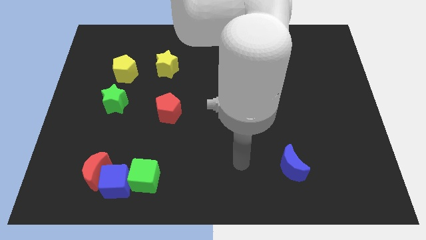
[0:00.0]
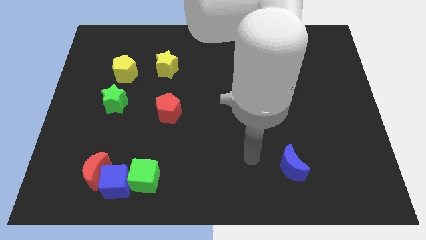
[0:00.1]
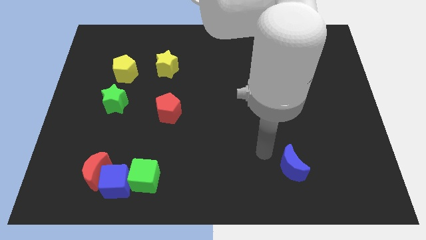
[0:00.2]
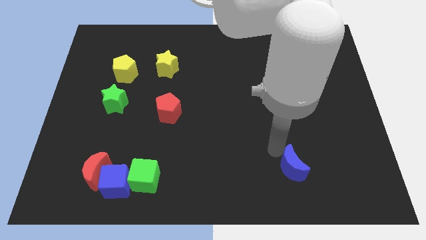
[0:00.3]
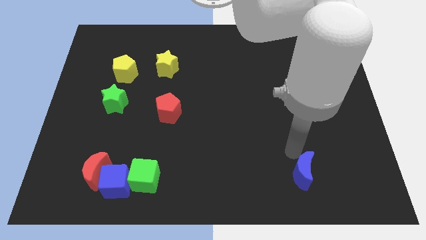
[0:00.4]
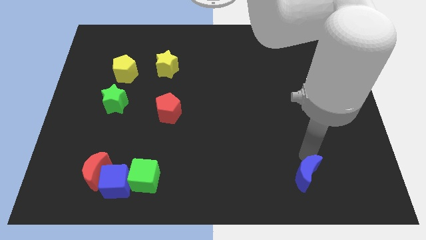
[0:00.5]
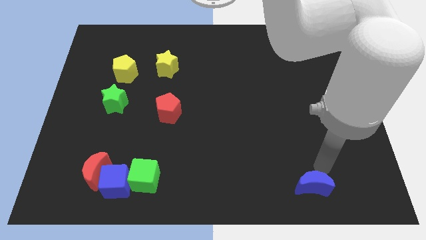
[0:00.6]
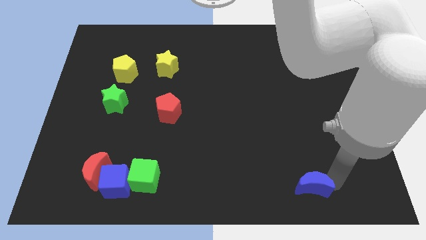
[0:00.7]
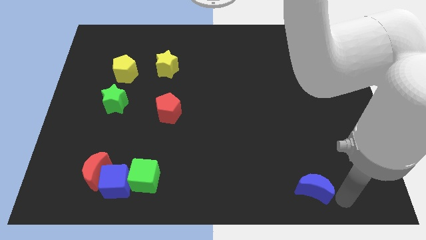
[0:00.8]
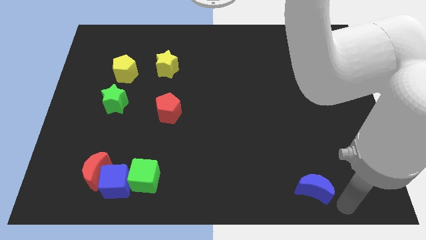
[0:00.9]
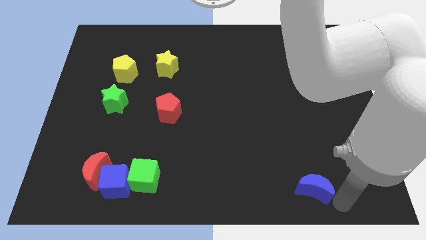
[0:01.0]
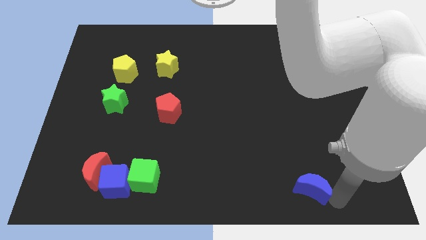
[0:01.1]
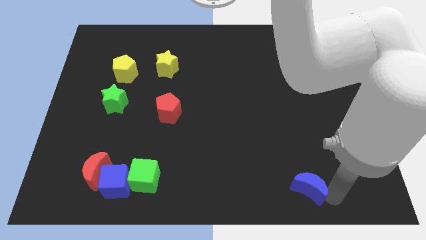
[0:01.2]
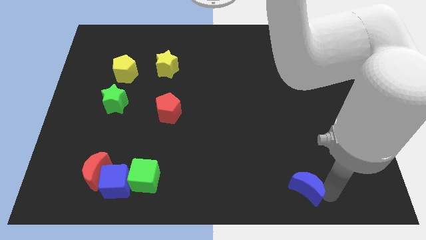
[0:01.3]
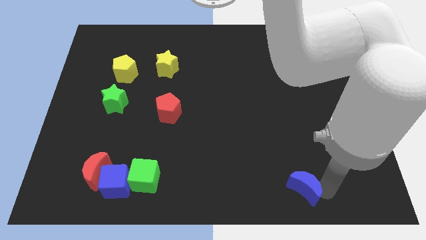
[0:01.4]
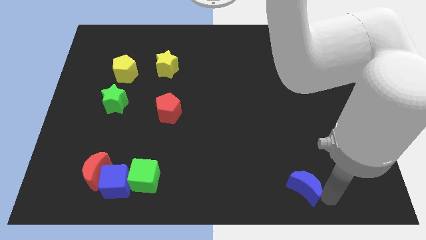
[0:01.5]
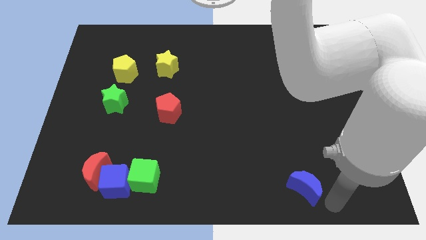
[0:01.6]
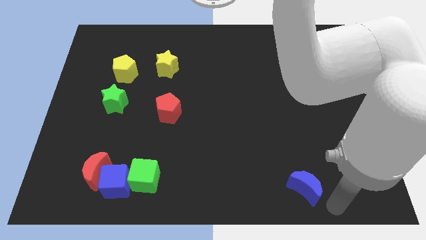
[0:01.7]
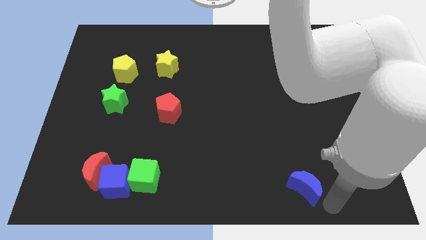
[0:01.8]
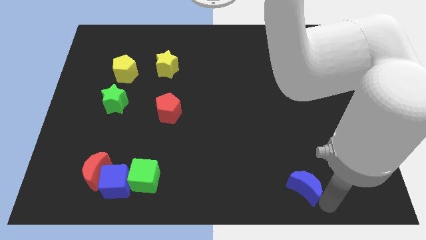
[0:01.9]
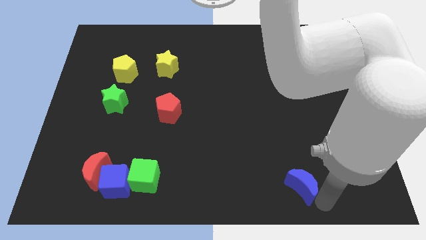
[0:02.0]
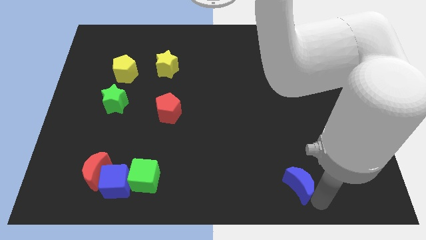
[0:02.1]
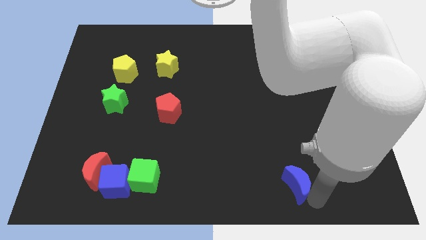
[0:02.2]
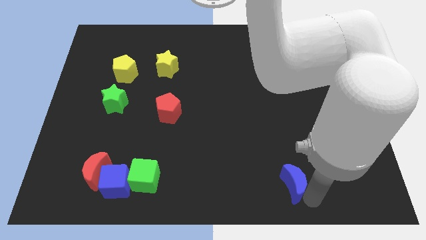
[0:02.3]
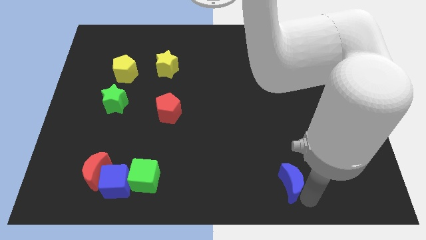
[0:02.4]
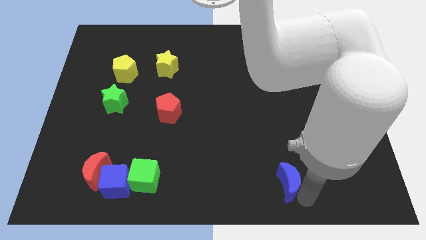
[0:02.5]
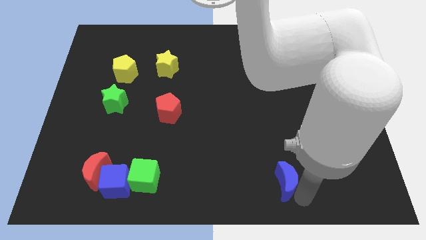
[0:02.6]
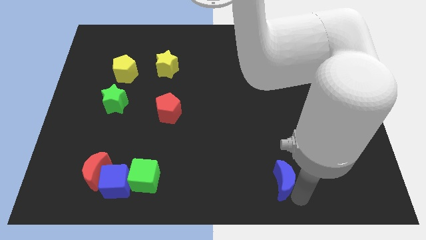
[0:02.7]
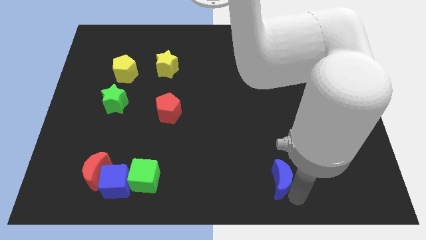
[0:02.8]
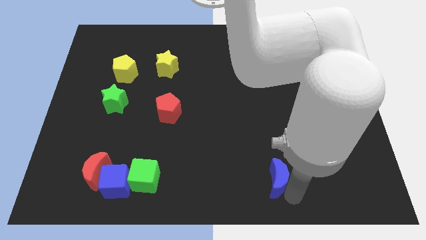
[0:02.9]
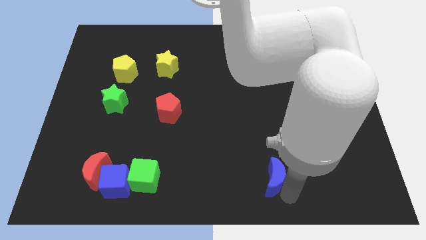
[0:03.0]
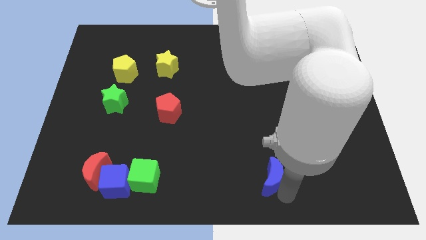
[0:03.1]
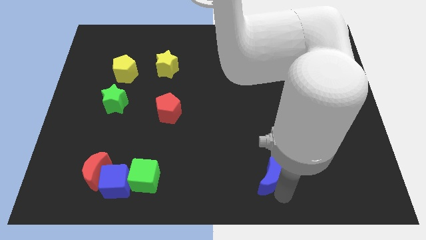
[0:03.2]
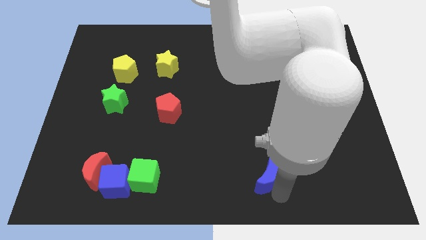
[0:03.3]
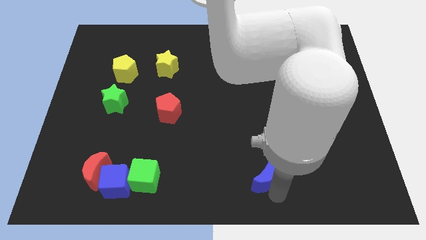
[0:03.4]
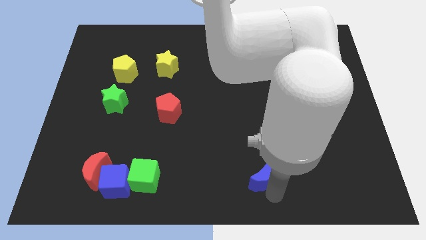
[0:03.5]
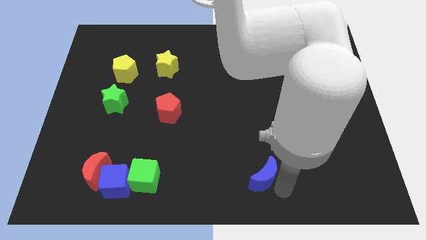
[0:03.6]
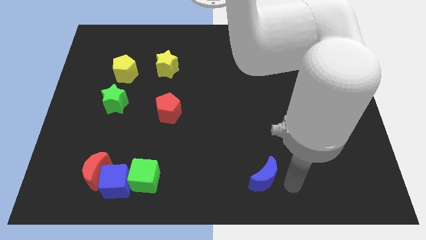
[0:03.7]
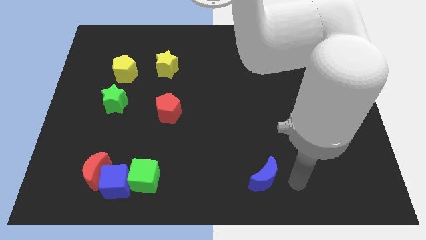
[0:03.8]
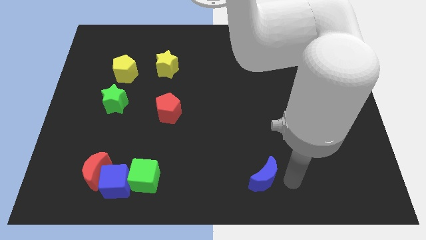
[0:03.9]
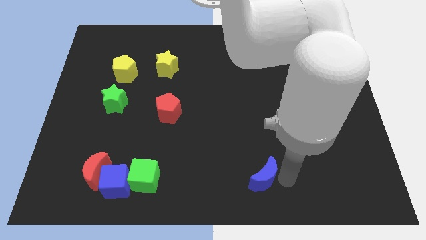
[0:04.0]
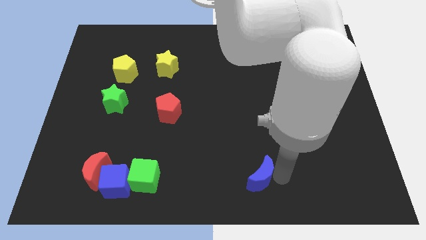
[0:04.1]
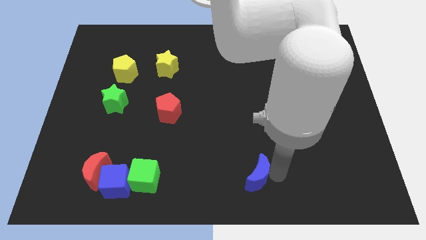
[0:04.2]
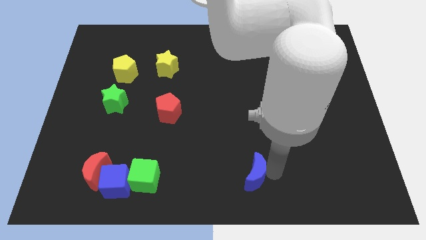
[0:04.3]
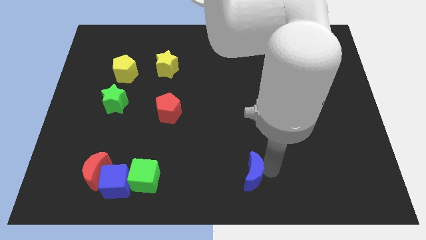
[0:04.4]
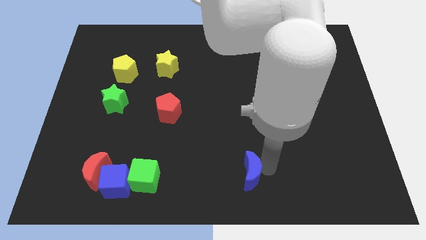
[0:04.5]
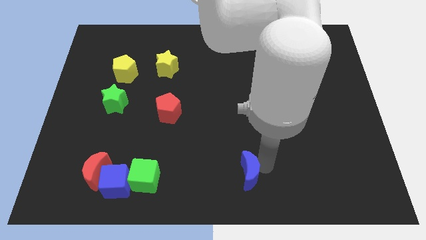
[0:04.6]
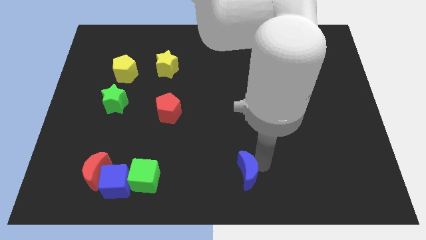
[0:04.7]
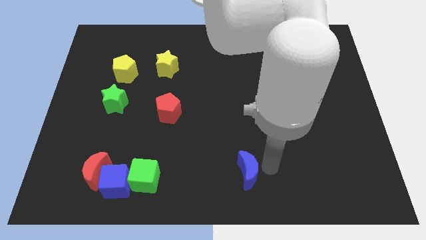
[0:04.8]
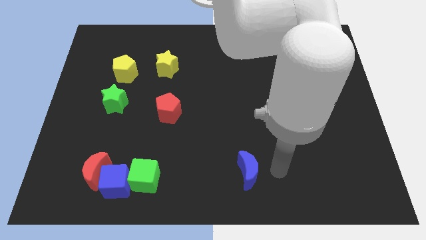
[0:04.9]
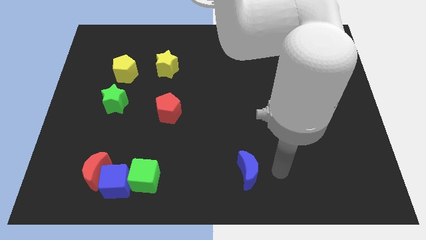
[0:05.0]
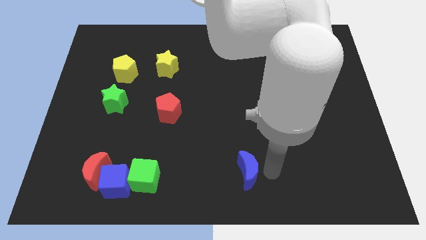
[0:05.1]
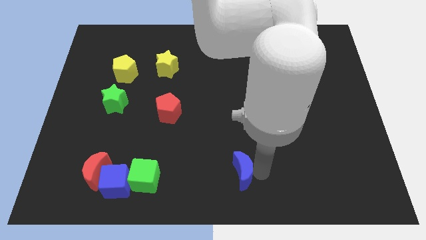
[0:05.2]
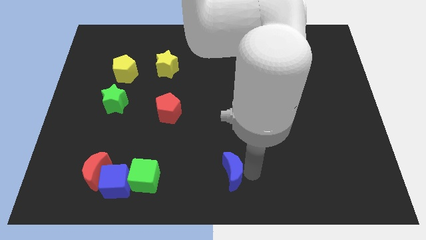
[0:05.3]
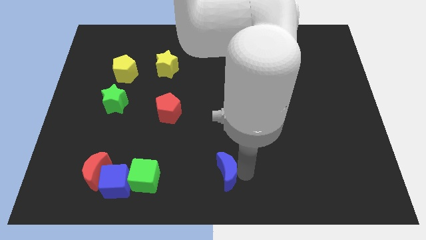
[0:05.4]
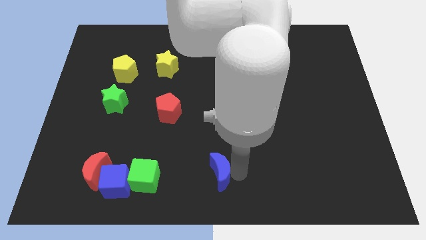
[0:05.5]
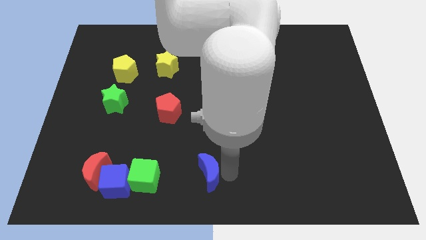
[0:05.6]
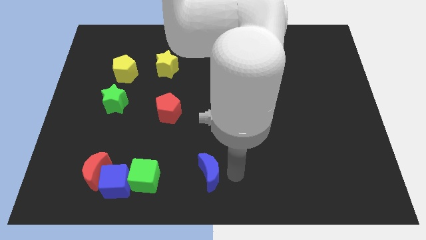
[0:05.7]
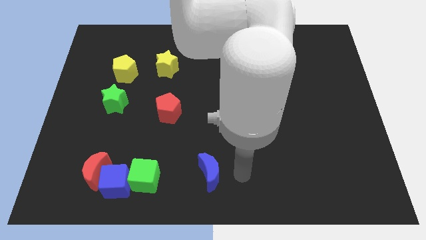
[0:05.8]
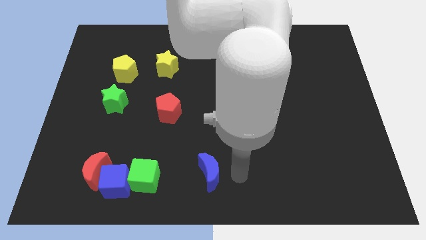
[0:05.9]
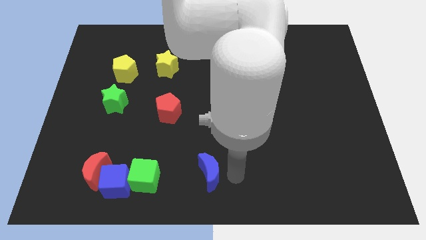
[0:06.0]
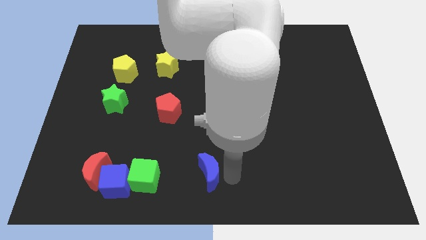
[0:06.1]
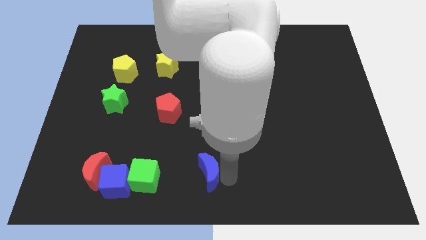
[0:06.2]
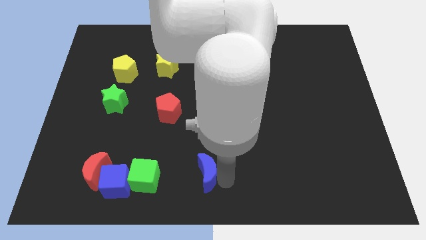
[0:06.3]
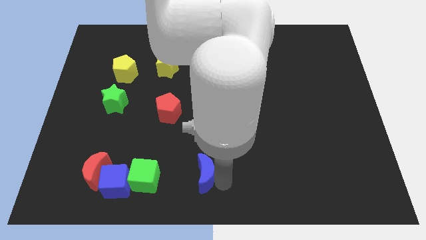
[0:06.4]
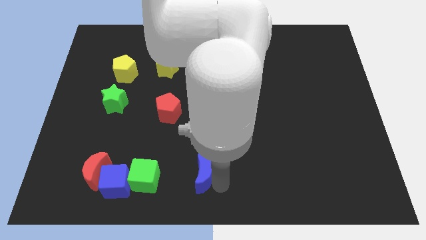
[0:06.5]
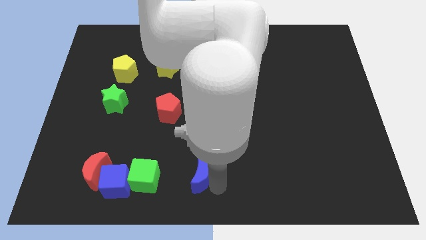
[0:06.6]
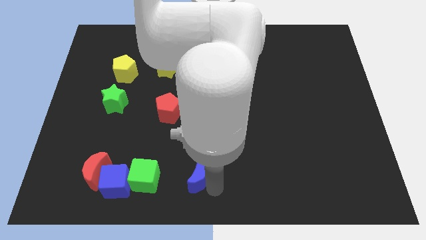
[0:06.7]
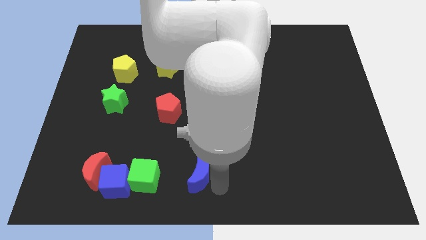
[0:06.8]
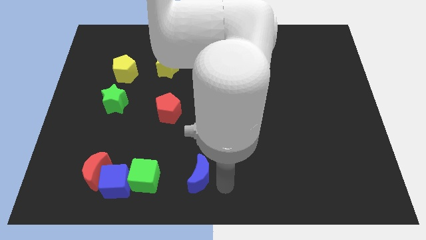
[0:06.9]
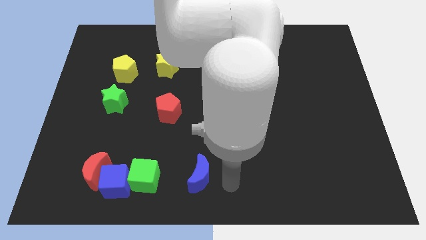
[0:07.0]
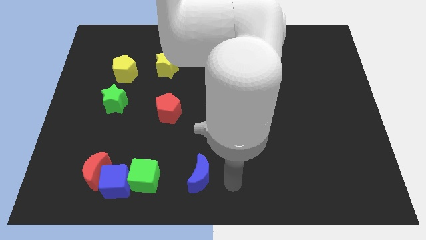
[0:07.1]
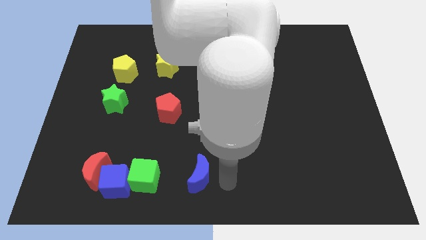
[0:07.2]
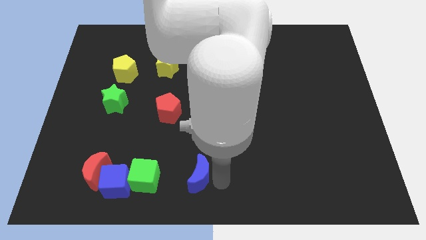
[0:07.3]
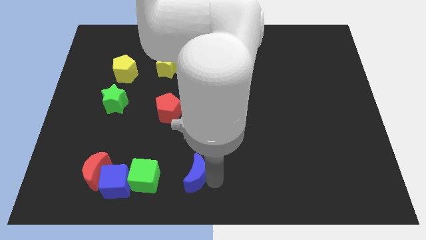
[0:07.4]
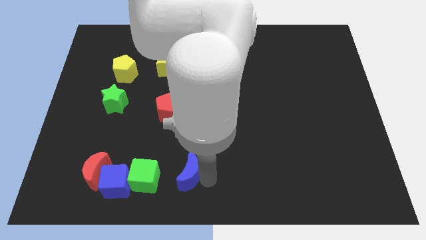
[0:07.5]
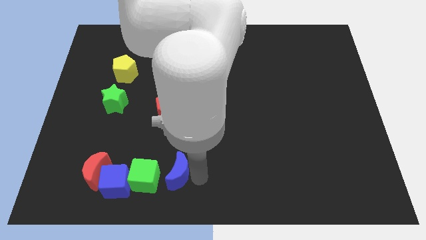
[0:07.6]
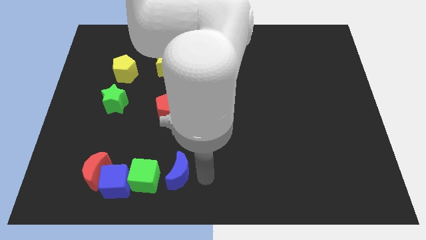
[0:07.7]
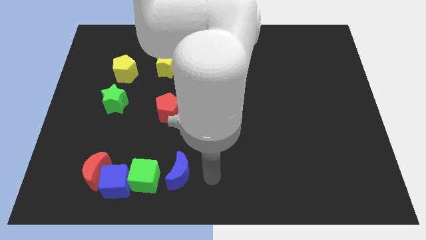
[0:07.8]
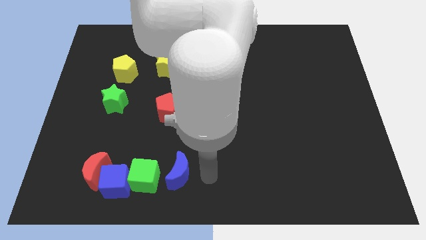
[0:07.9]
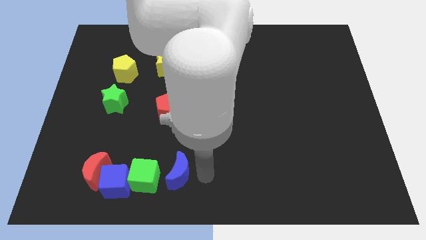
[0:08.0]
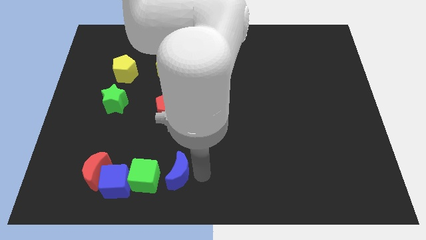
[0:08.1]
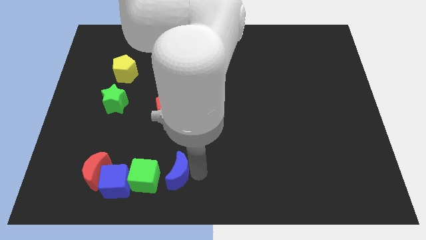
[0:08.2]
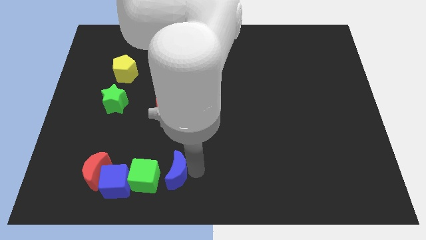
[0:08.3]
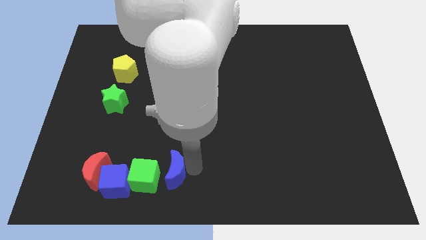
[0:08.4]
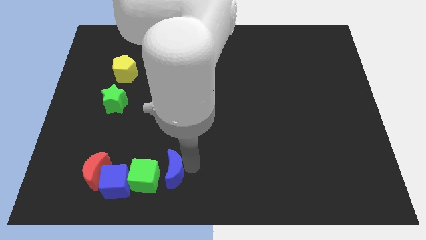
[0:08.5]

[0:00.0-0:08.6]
push the blue moon to the right of the red moon
